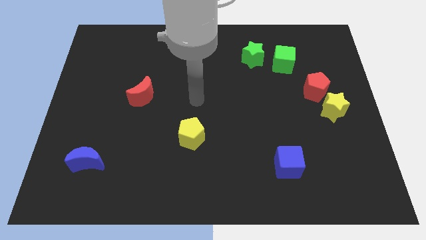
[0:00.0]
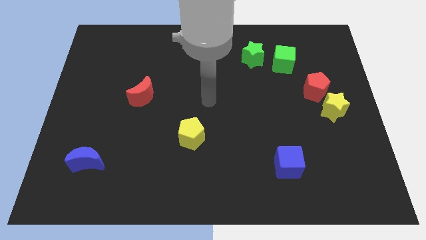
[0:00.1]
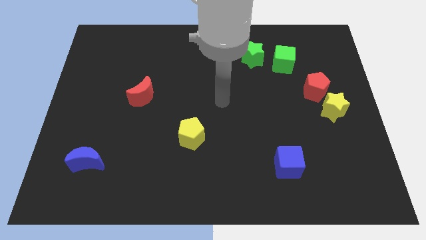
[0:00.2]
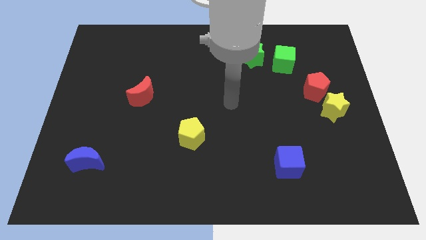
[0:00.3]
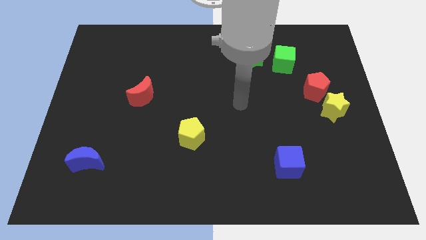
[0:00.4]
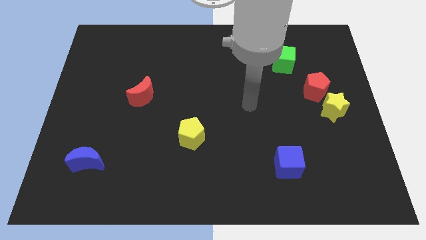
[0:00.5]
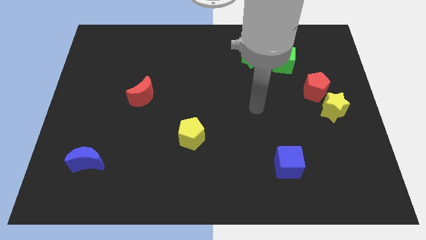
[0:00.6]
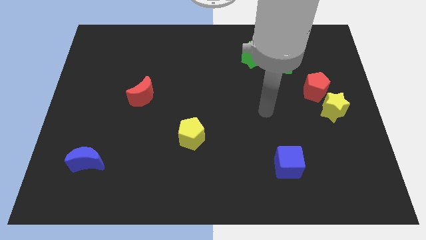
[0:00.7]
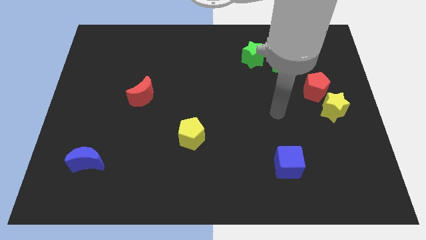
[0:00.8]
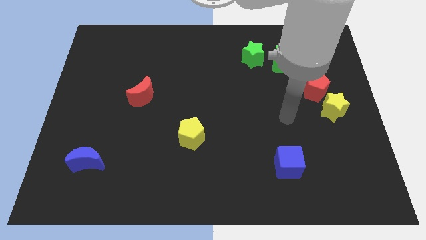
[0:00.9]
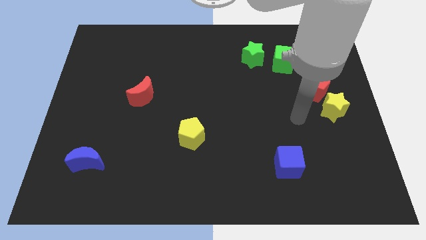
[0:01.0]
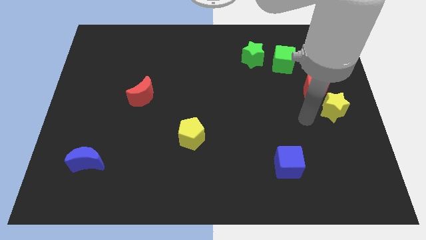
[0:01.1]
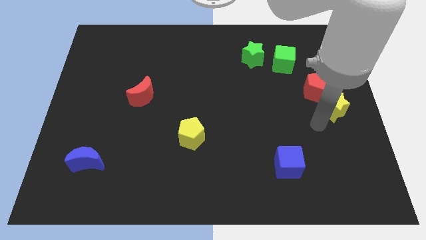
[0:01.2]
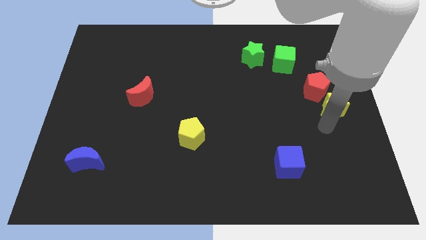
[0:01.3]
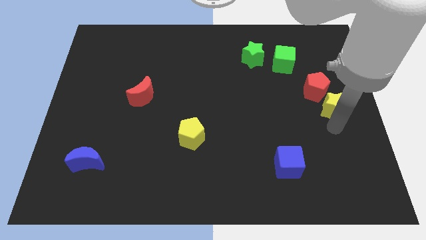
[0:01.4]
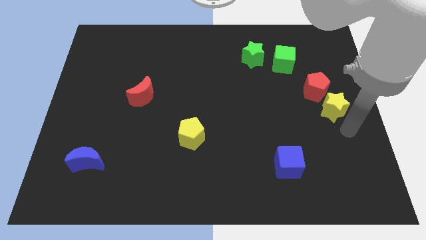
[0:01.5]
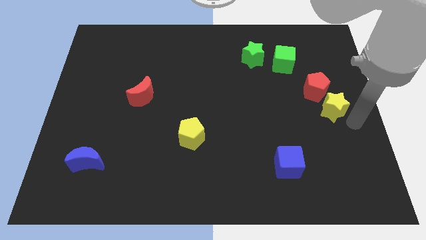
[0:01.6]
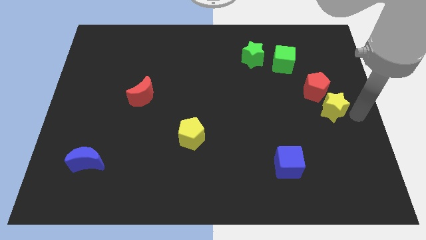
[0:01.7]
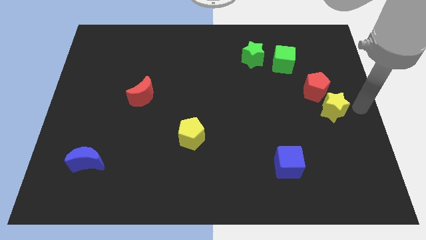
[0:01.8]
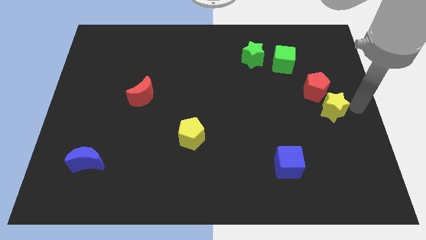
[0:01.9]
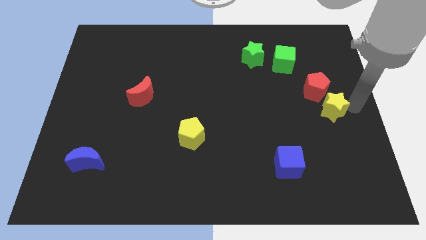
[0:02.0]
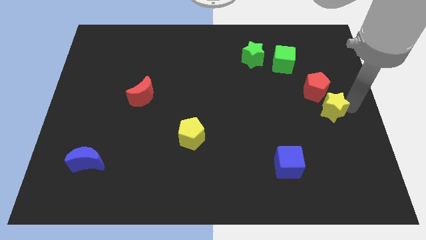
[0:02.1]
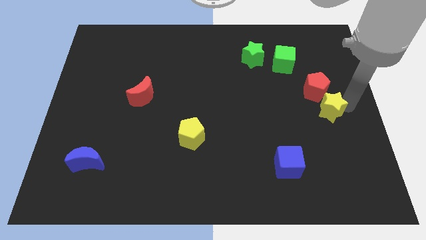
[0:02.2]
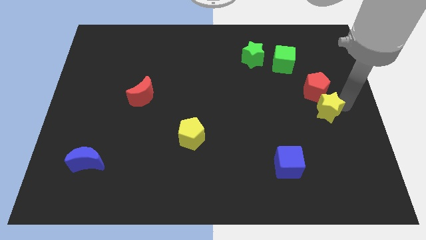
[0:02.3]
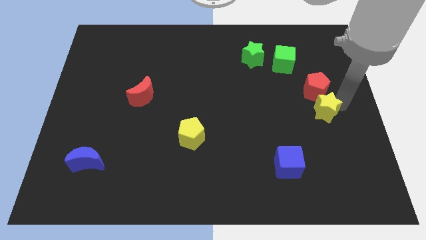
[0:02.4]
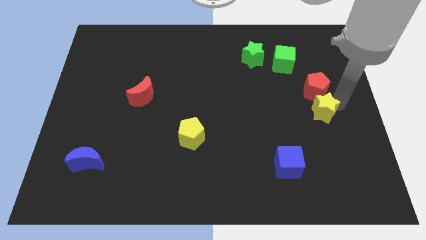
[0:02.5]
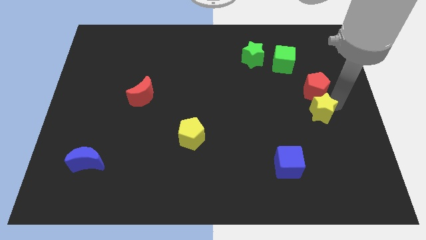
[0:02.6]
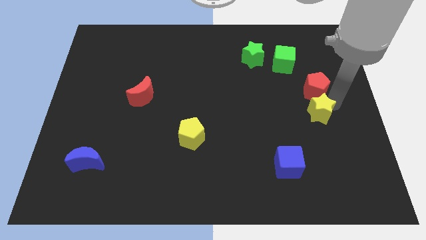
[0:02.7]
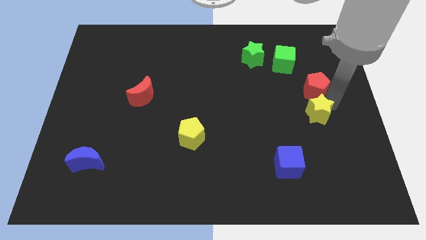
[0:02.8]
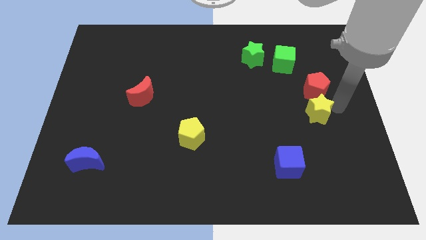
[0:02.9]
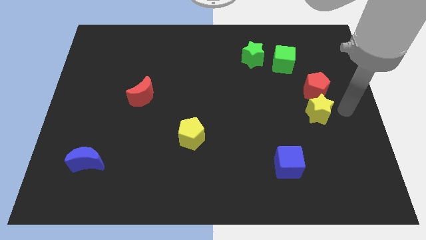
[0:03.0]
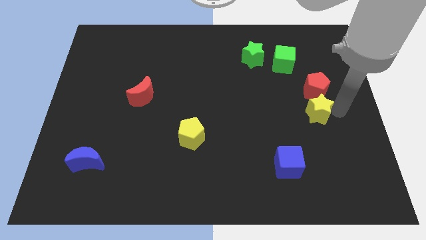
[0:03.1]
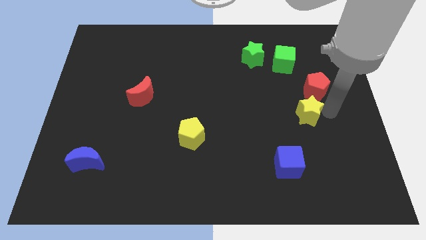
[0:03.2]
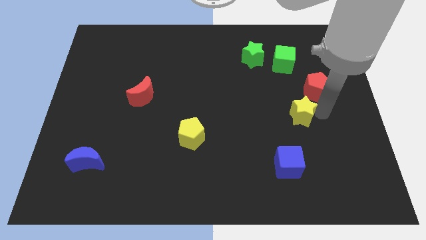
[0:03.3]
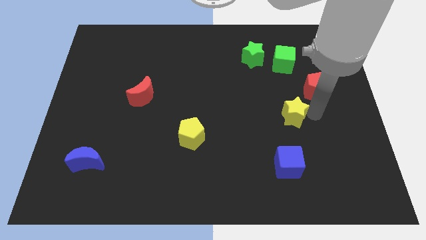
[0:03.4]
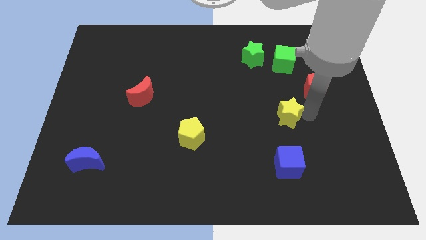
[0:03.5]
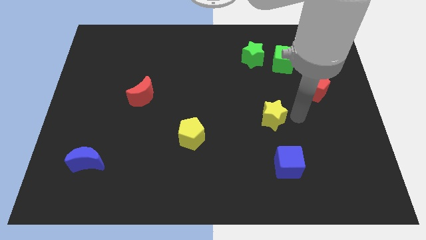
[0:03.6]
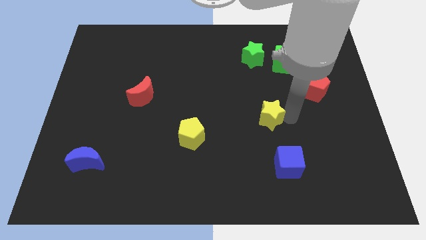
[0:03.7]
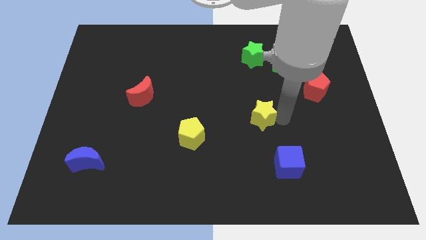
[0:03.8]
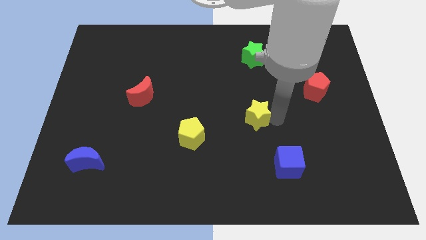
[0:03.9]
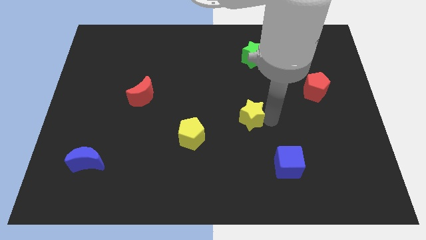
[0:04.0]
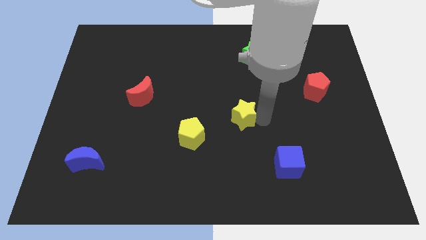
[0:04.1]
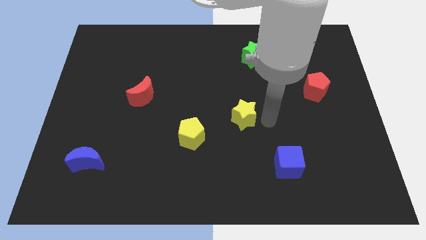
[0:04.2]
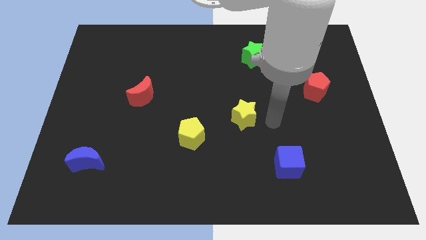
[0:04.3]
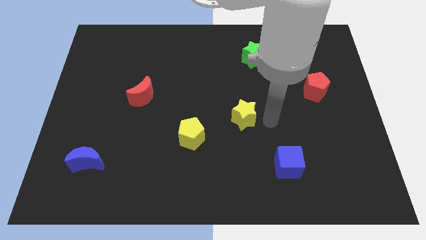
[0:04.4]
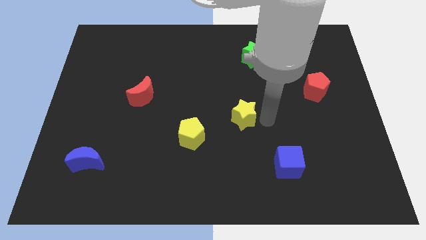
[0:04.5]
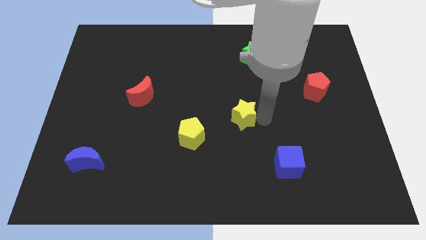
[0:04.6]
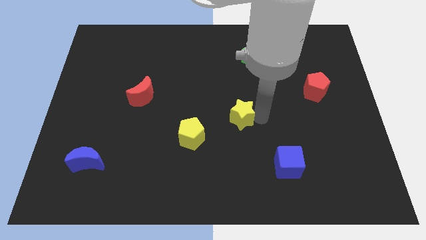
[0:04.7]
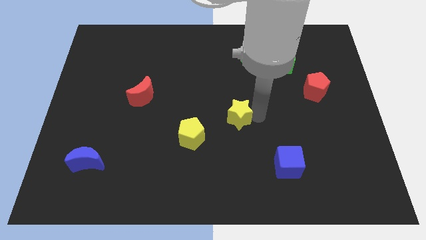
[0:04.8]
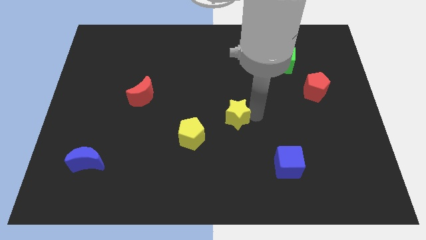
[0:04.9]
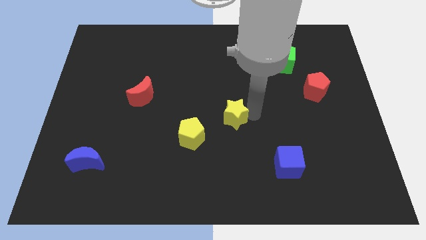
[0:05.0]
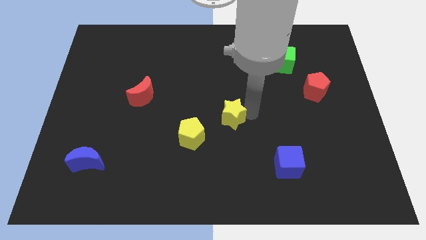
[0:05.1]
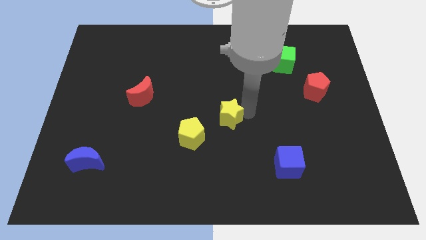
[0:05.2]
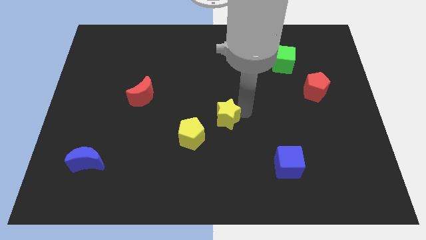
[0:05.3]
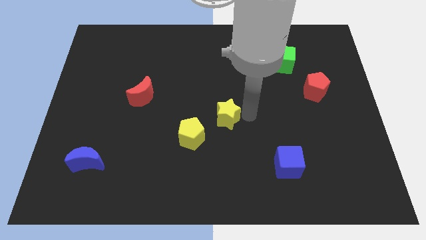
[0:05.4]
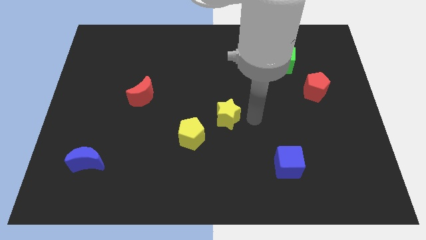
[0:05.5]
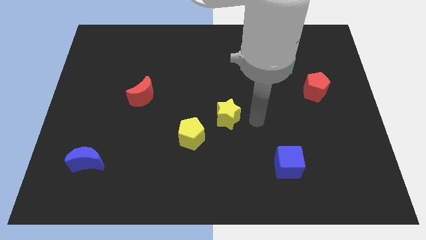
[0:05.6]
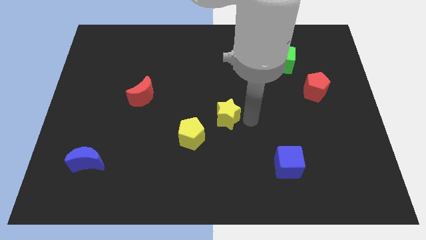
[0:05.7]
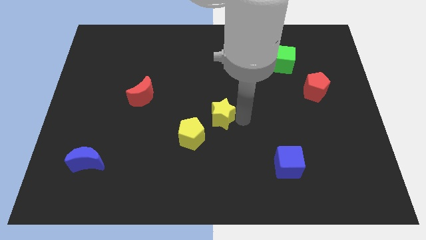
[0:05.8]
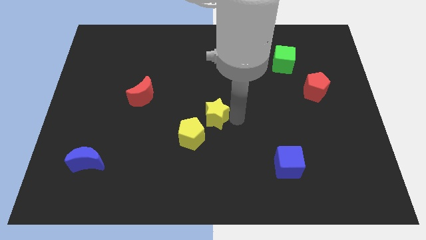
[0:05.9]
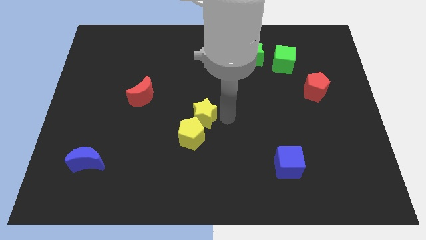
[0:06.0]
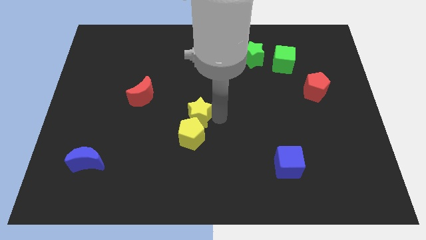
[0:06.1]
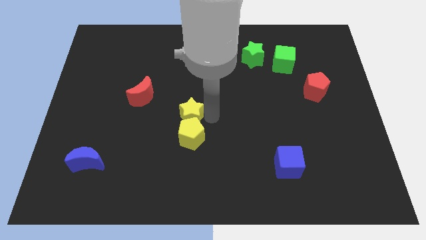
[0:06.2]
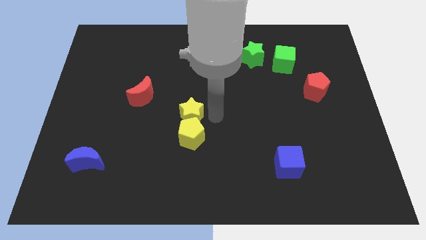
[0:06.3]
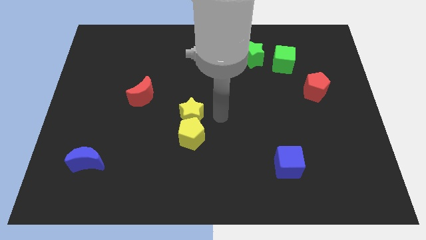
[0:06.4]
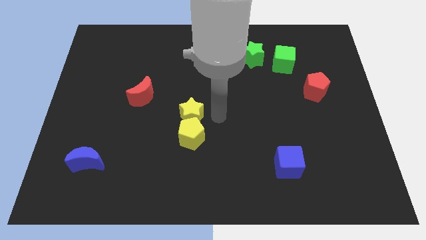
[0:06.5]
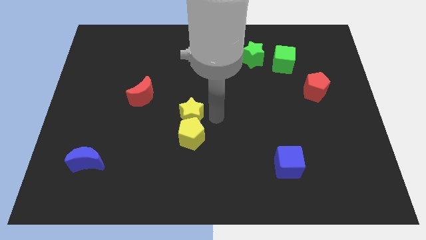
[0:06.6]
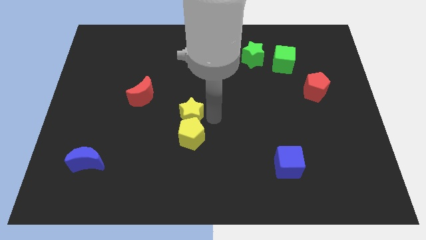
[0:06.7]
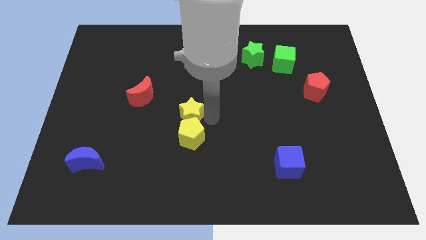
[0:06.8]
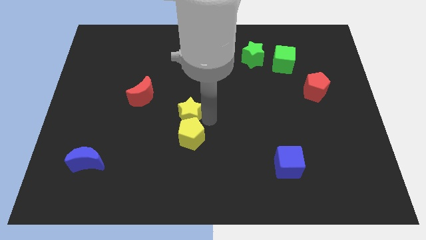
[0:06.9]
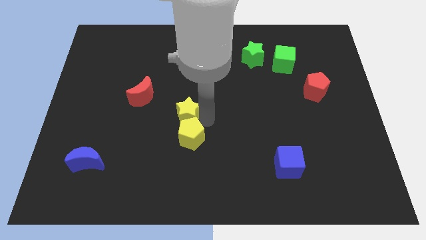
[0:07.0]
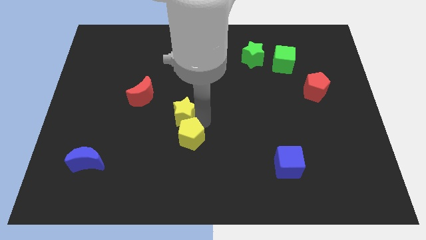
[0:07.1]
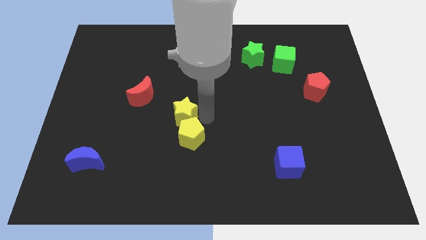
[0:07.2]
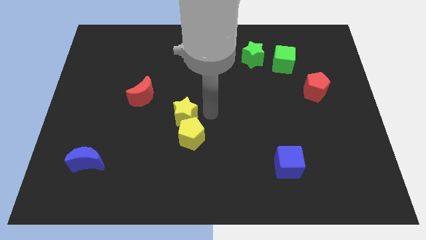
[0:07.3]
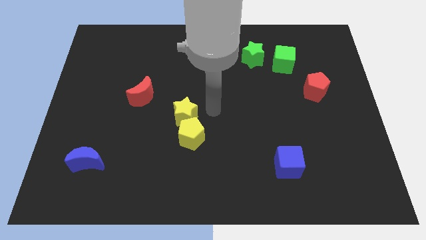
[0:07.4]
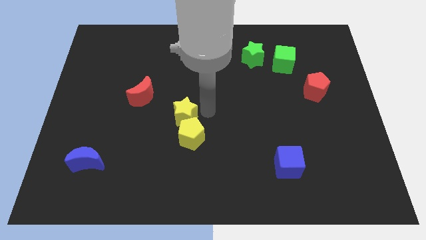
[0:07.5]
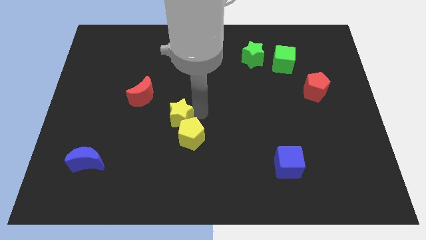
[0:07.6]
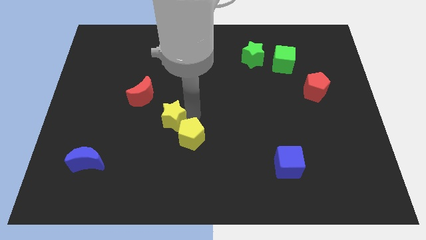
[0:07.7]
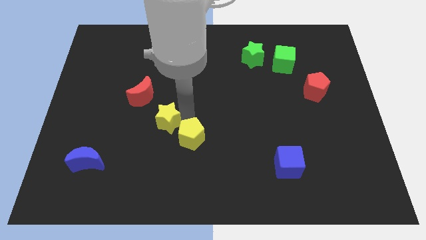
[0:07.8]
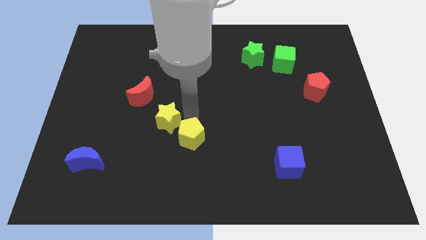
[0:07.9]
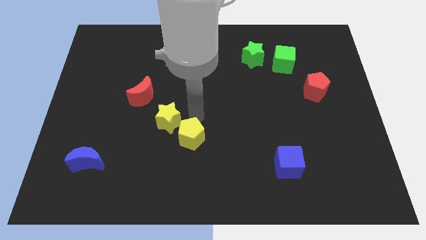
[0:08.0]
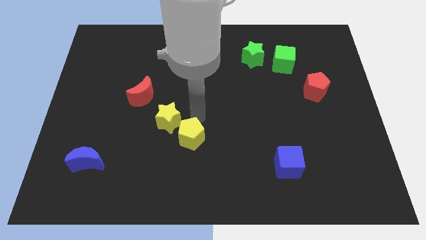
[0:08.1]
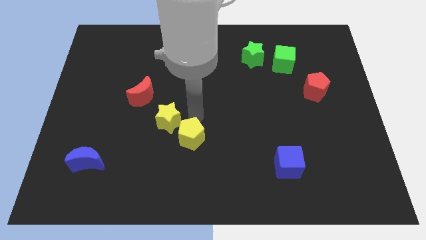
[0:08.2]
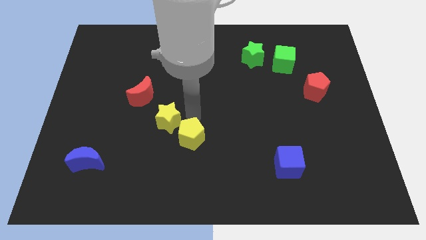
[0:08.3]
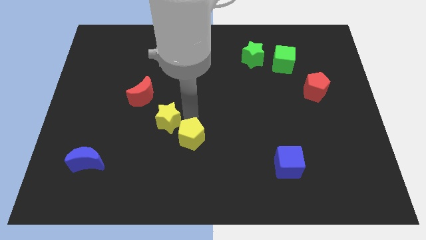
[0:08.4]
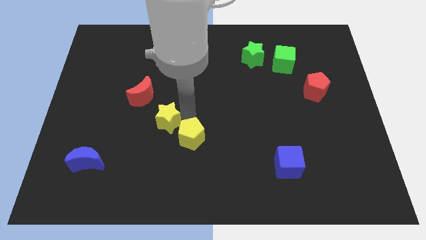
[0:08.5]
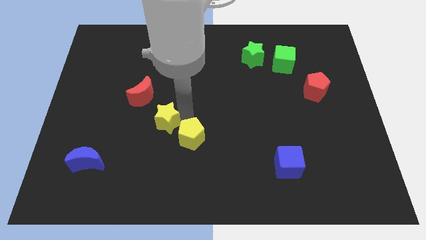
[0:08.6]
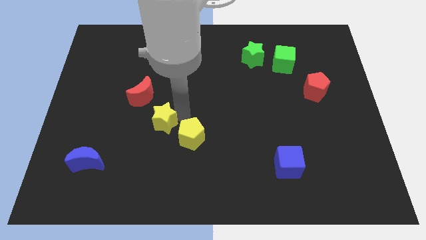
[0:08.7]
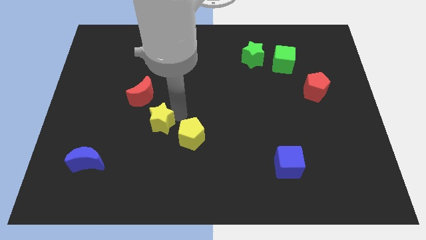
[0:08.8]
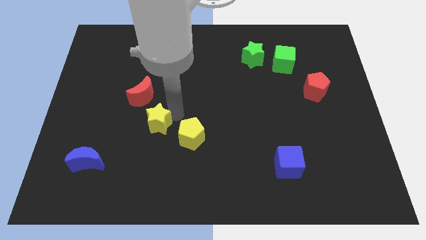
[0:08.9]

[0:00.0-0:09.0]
put the yellow star to the bottom of the red moon
